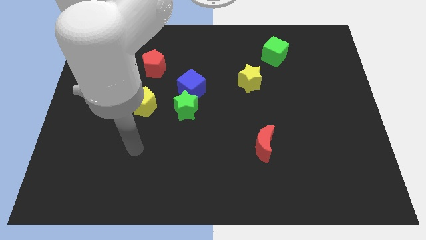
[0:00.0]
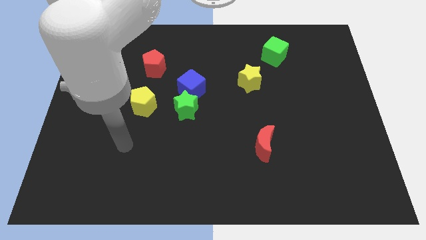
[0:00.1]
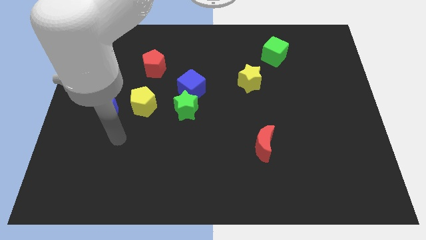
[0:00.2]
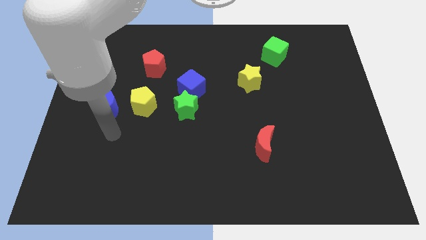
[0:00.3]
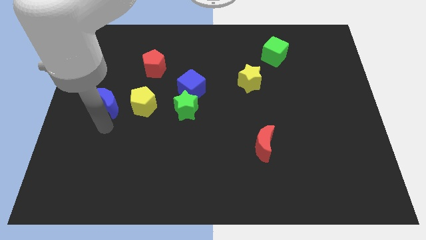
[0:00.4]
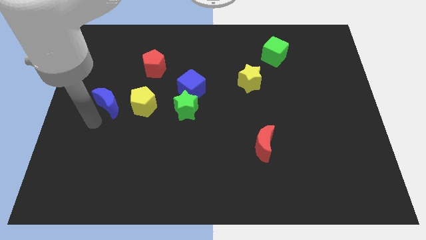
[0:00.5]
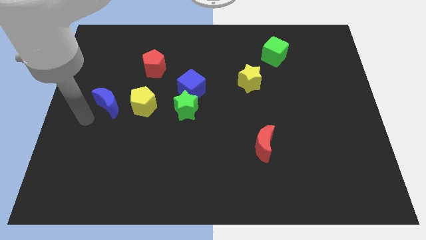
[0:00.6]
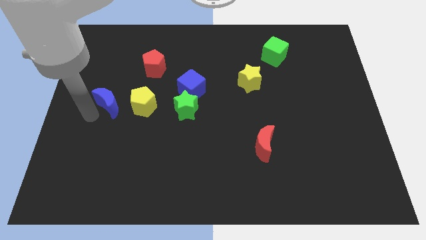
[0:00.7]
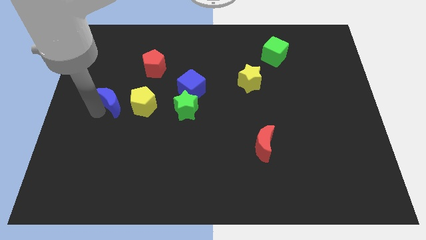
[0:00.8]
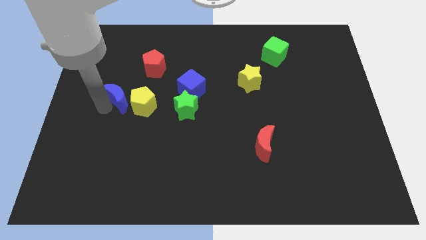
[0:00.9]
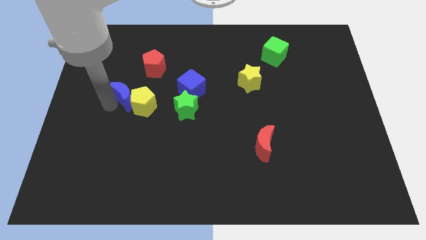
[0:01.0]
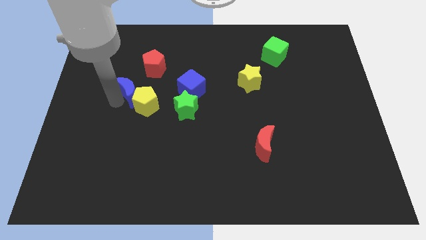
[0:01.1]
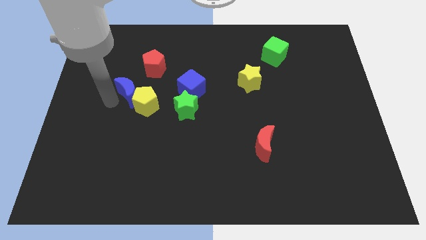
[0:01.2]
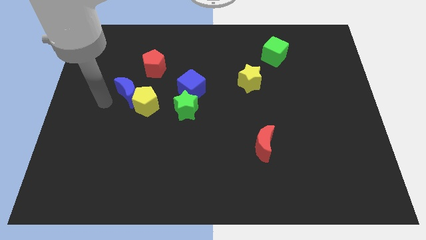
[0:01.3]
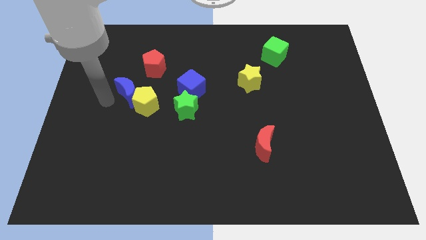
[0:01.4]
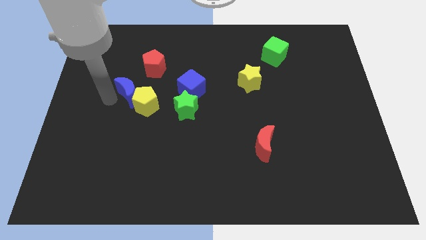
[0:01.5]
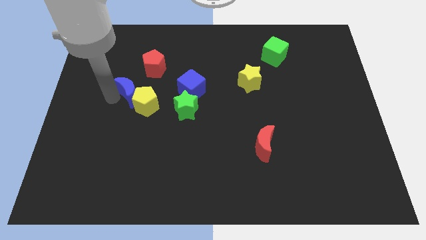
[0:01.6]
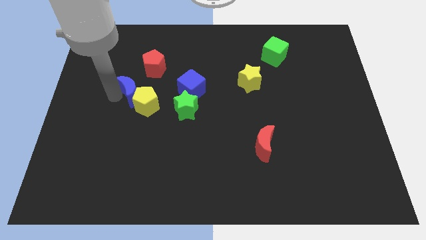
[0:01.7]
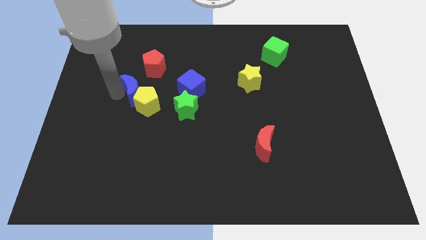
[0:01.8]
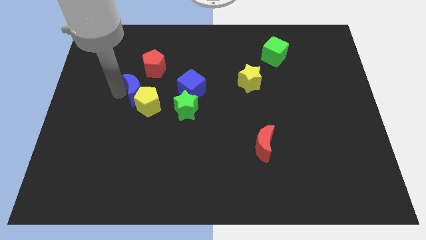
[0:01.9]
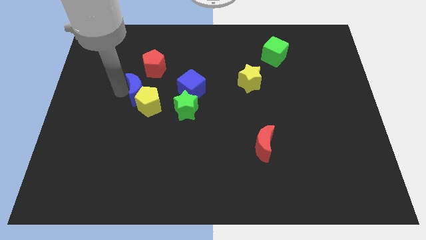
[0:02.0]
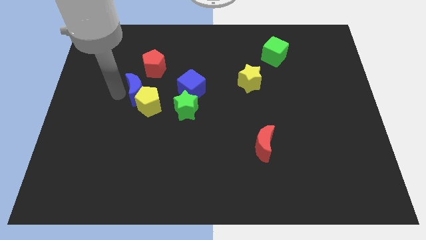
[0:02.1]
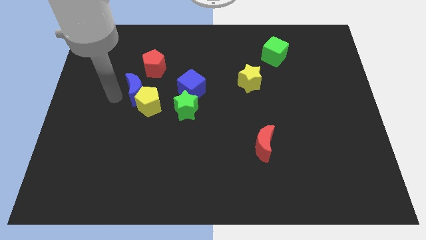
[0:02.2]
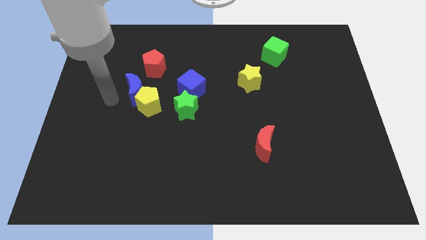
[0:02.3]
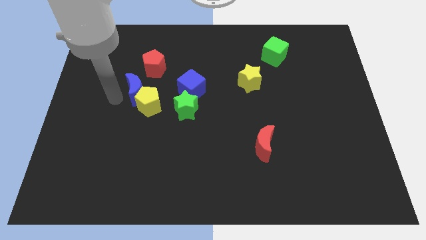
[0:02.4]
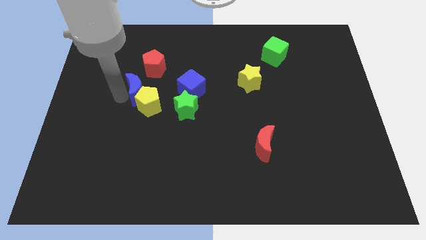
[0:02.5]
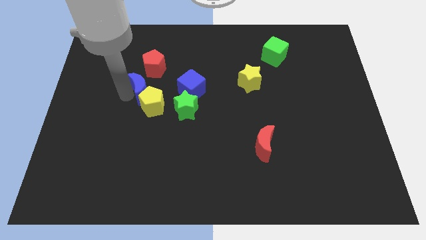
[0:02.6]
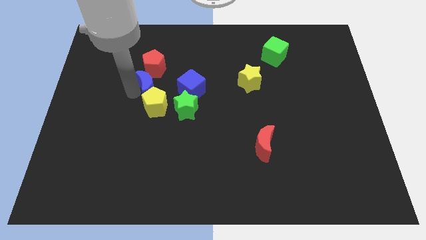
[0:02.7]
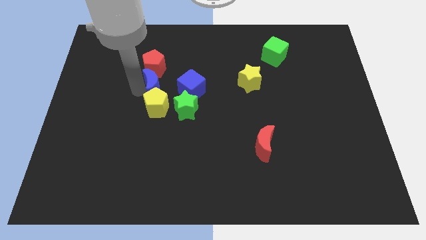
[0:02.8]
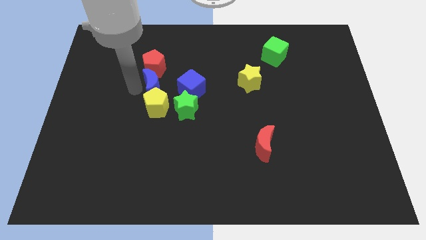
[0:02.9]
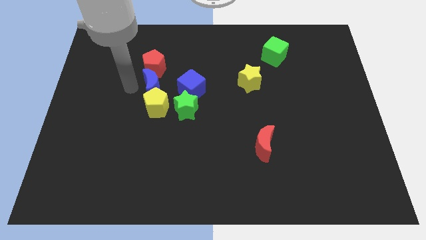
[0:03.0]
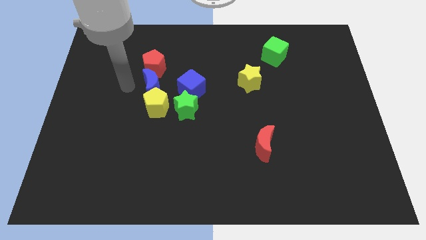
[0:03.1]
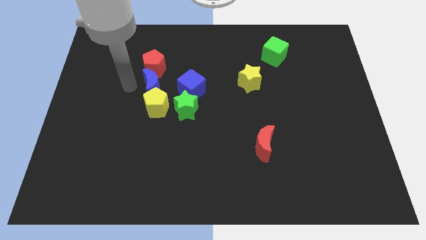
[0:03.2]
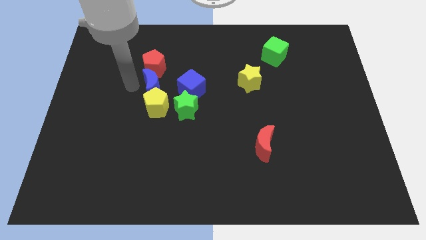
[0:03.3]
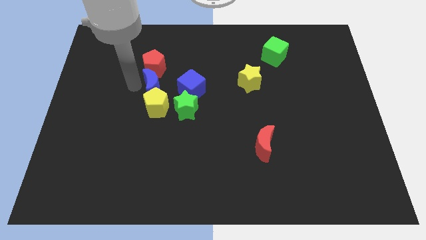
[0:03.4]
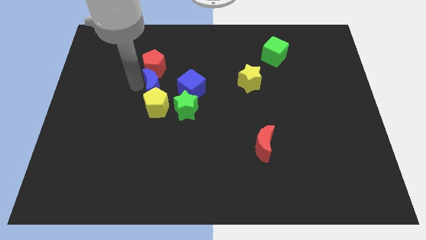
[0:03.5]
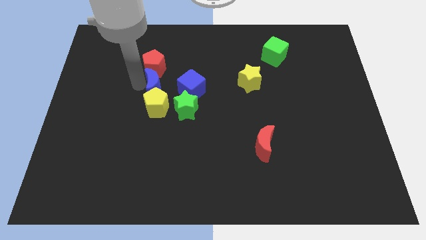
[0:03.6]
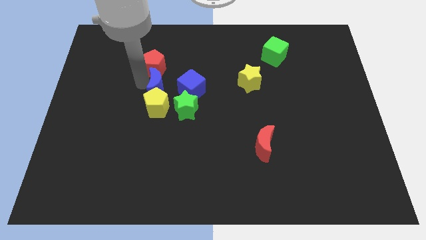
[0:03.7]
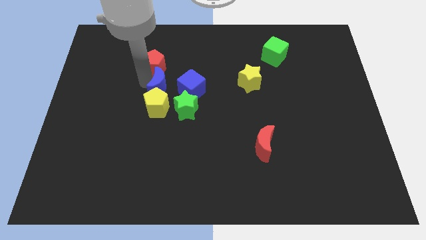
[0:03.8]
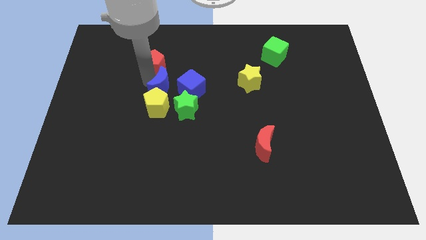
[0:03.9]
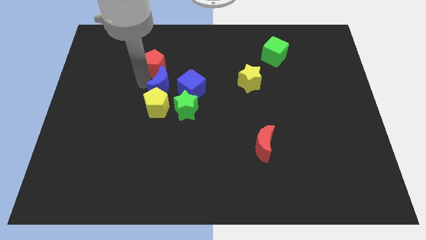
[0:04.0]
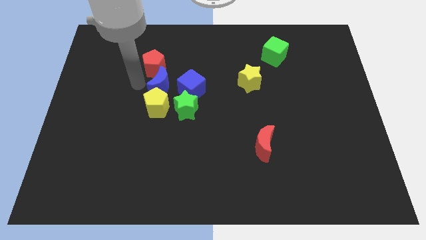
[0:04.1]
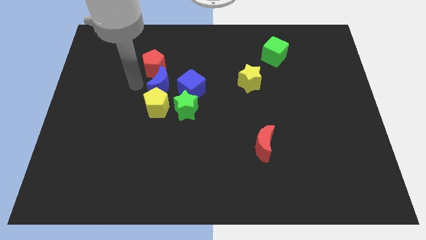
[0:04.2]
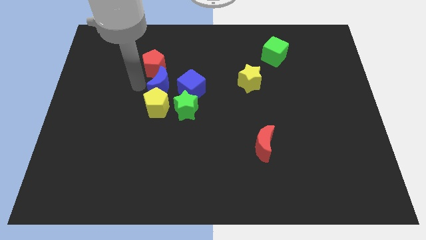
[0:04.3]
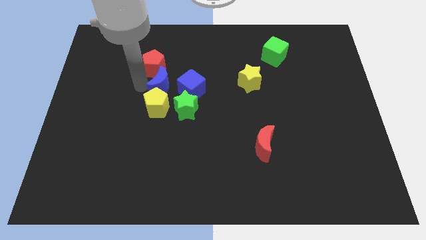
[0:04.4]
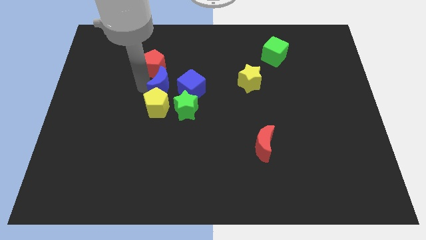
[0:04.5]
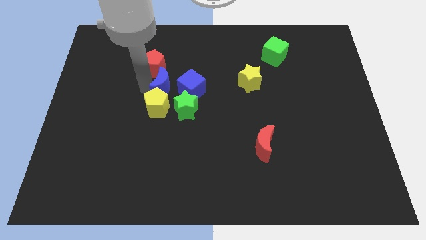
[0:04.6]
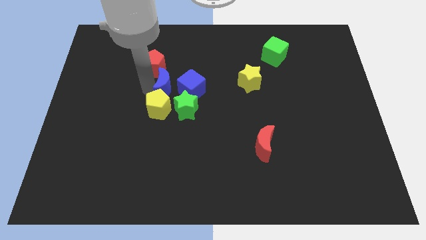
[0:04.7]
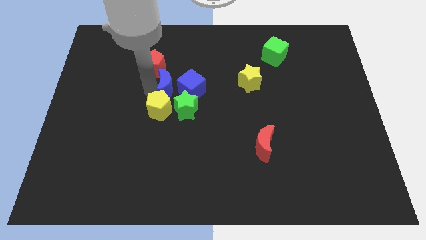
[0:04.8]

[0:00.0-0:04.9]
slide the blue moon towards the blue cube

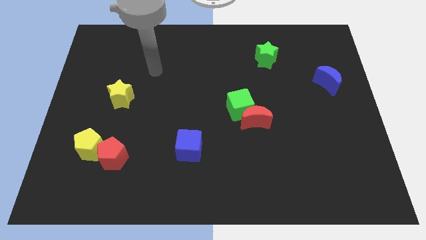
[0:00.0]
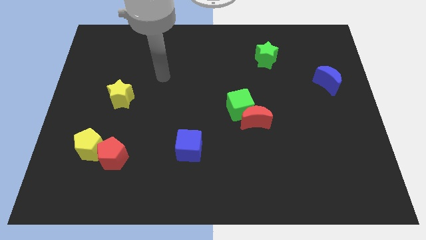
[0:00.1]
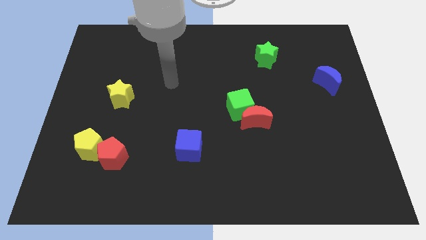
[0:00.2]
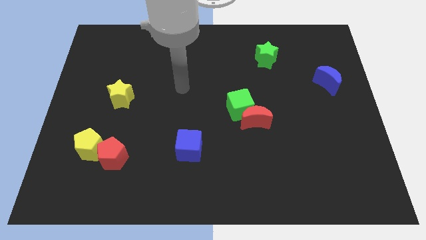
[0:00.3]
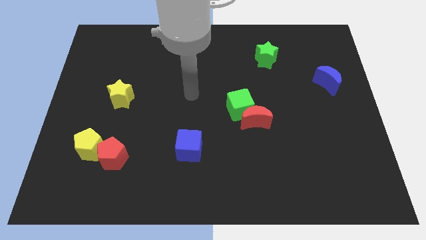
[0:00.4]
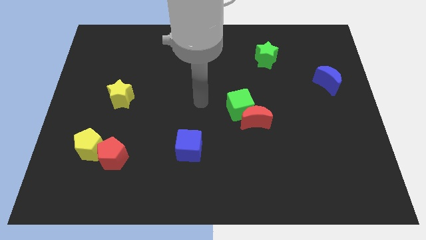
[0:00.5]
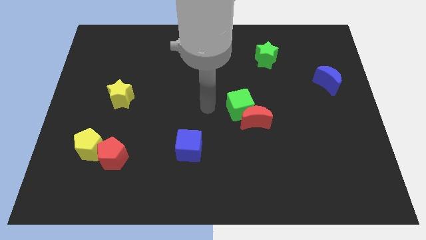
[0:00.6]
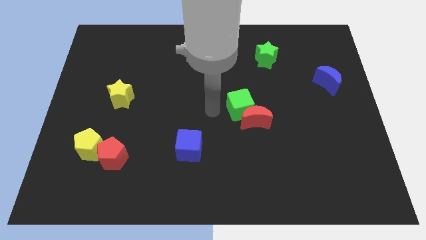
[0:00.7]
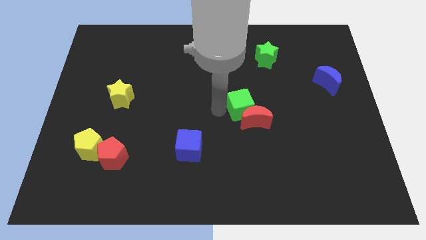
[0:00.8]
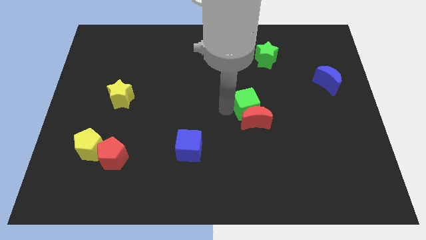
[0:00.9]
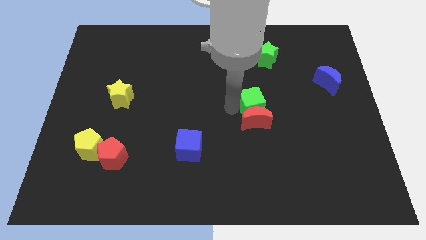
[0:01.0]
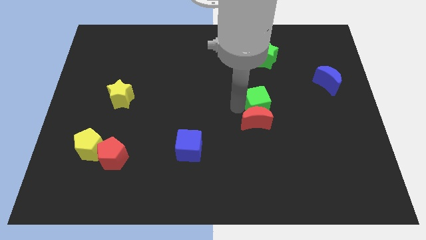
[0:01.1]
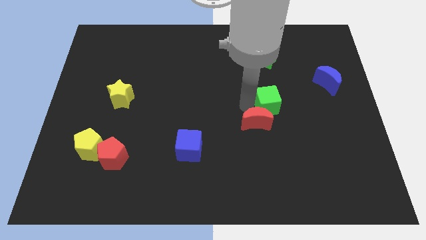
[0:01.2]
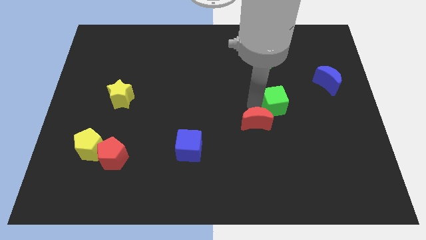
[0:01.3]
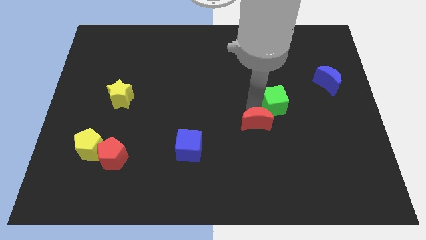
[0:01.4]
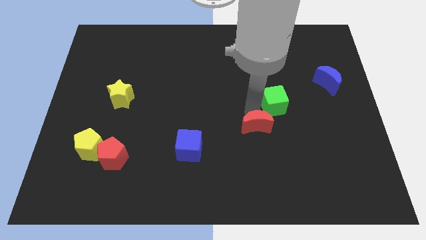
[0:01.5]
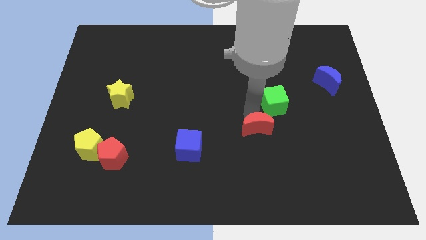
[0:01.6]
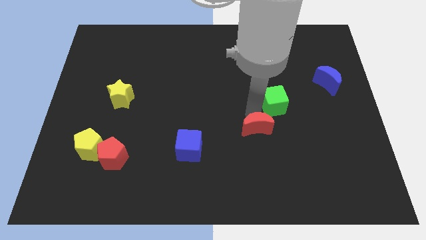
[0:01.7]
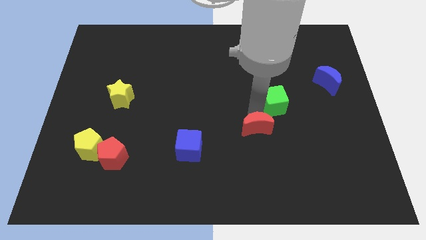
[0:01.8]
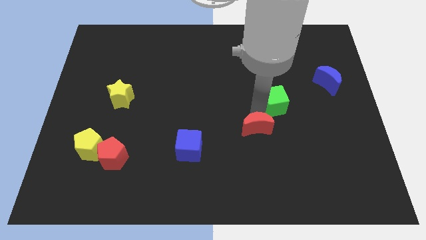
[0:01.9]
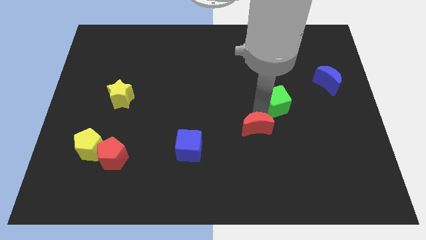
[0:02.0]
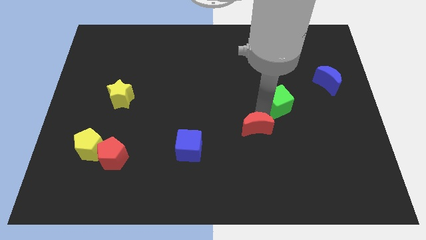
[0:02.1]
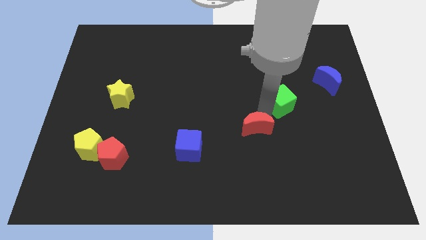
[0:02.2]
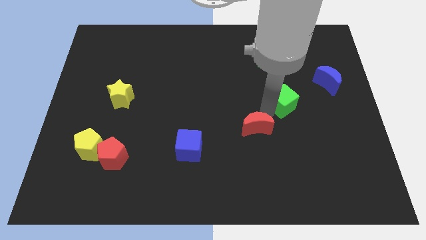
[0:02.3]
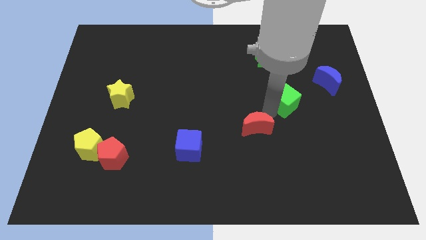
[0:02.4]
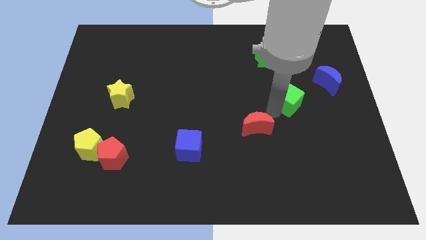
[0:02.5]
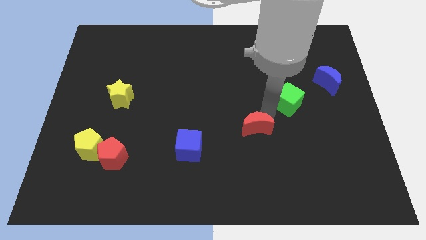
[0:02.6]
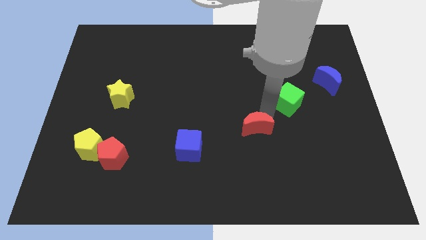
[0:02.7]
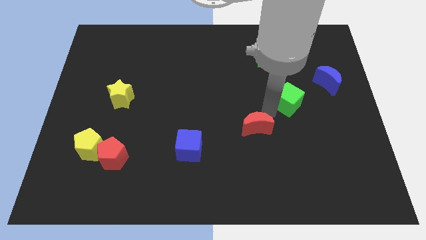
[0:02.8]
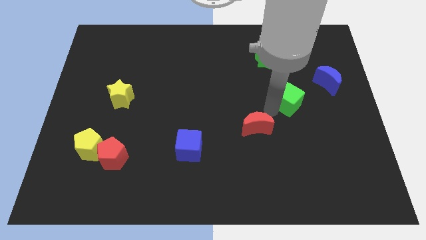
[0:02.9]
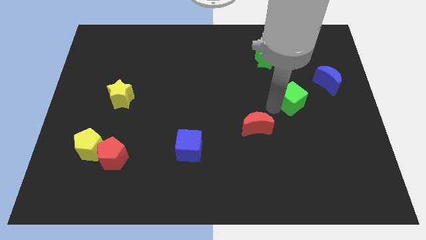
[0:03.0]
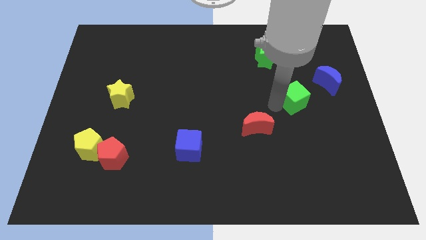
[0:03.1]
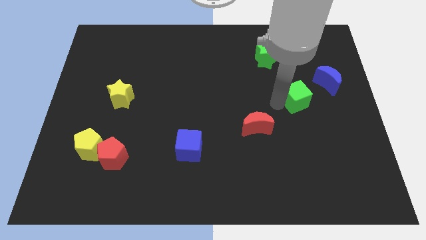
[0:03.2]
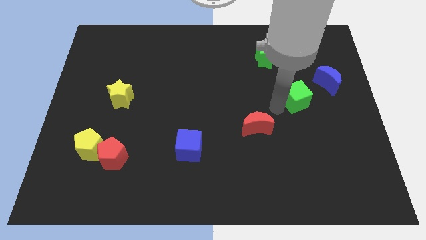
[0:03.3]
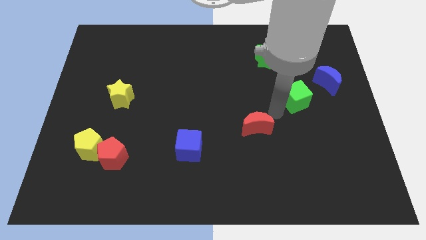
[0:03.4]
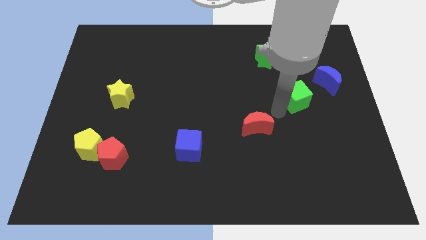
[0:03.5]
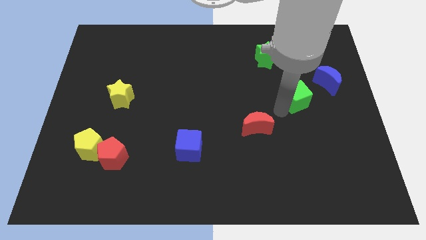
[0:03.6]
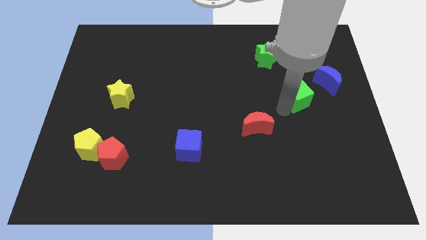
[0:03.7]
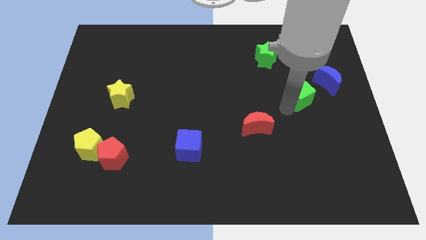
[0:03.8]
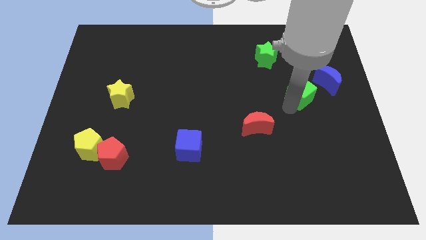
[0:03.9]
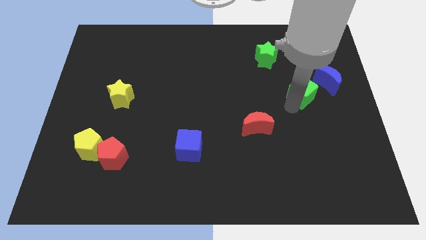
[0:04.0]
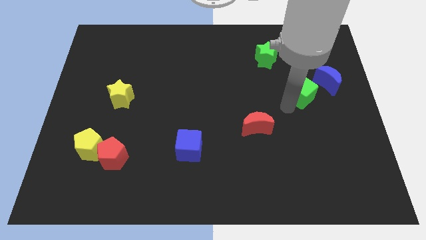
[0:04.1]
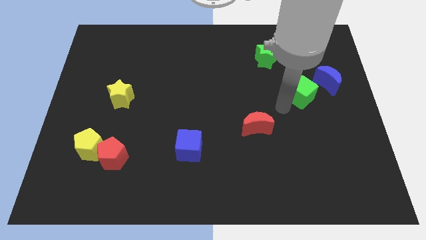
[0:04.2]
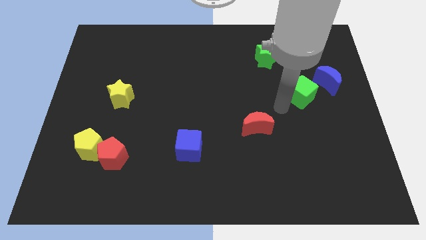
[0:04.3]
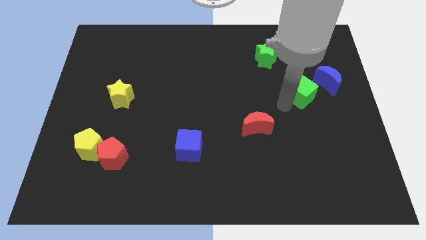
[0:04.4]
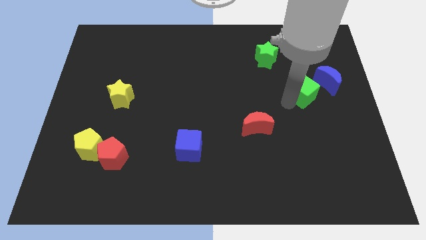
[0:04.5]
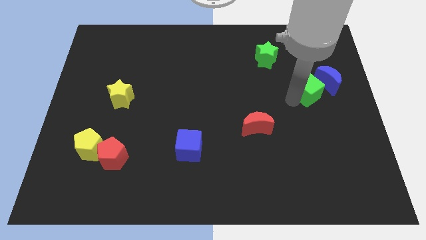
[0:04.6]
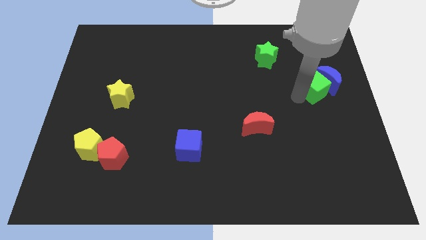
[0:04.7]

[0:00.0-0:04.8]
slide the green cube to the blue moon
